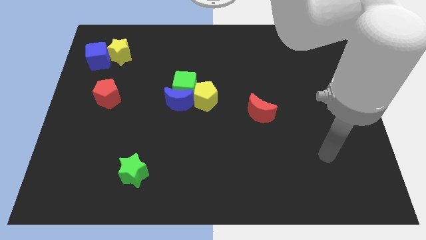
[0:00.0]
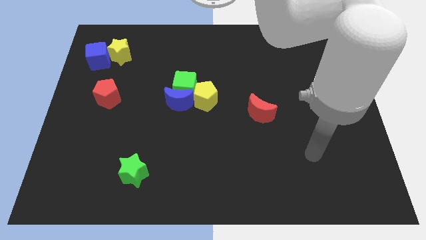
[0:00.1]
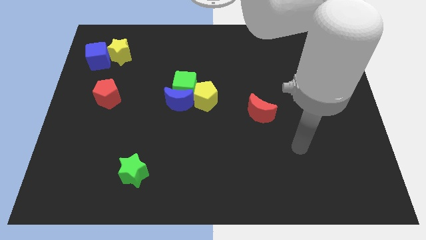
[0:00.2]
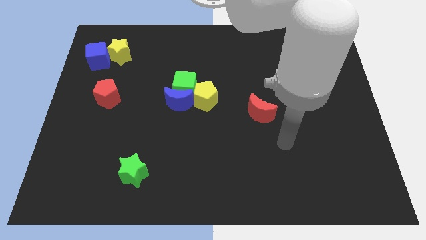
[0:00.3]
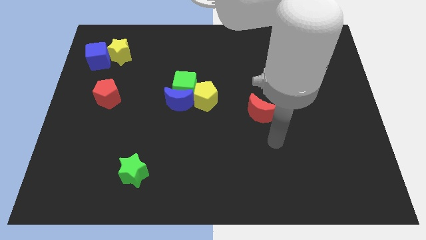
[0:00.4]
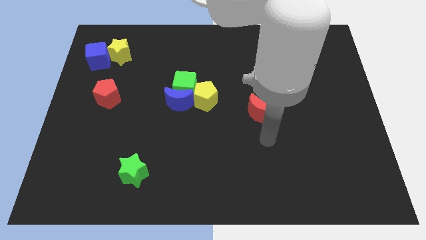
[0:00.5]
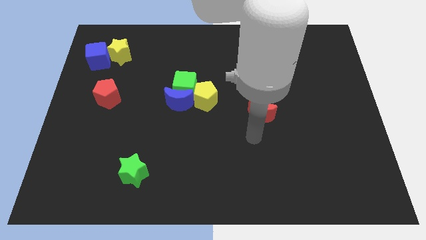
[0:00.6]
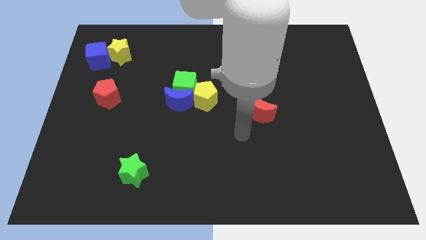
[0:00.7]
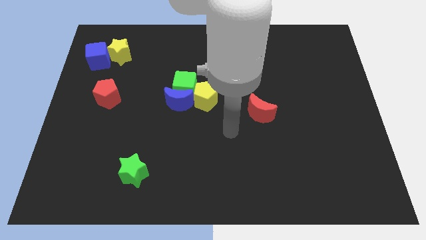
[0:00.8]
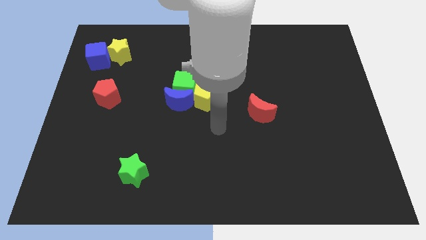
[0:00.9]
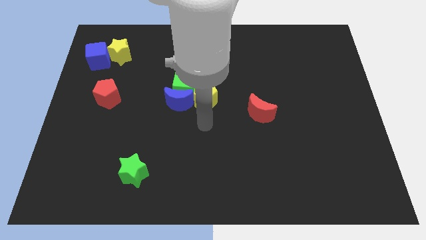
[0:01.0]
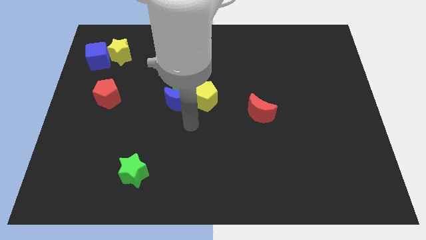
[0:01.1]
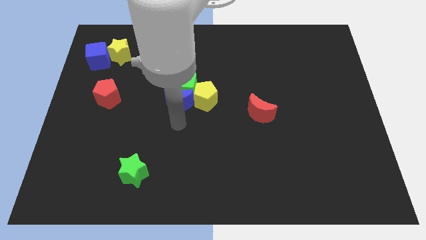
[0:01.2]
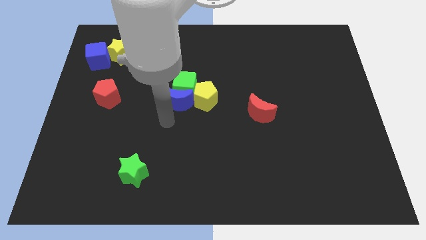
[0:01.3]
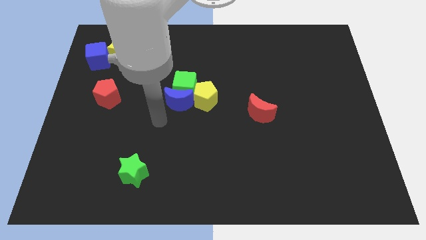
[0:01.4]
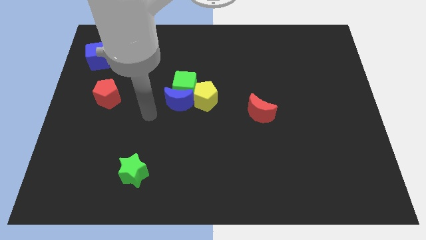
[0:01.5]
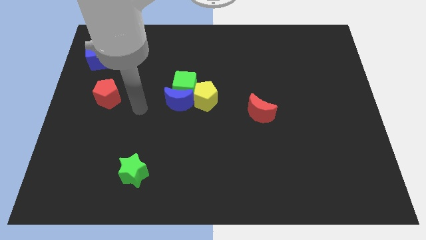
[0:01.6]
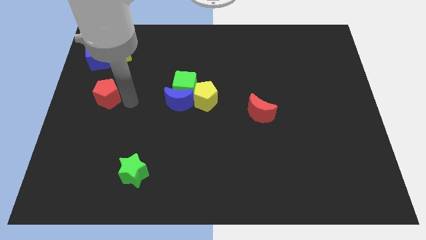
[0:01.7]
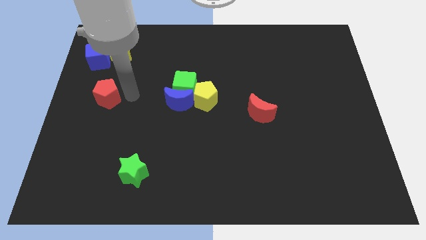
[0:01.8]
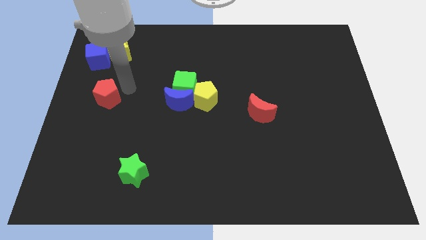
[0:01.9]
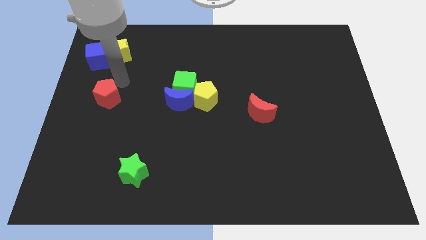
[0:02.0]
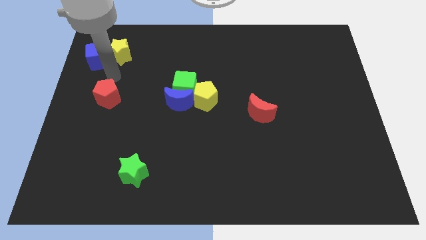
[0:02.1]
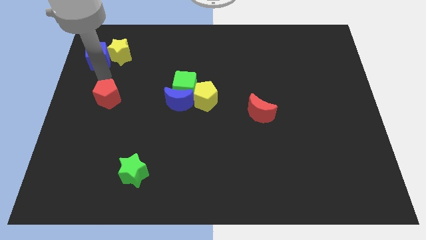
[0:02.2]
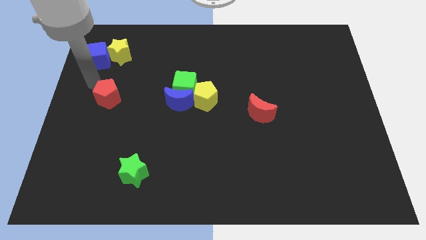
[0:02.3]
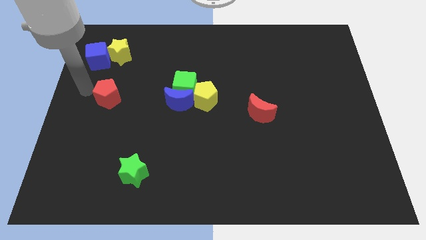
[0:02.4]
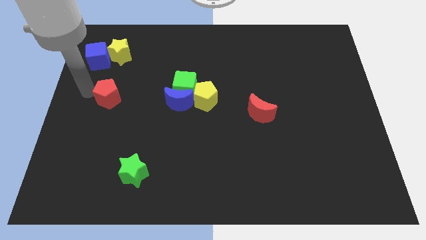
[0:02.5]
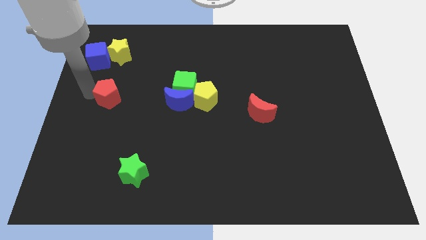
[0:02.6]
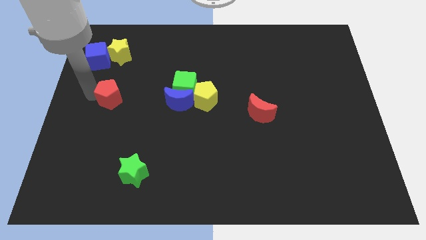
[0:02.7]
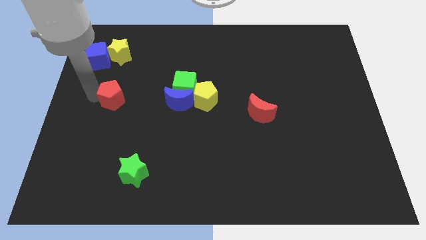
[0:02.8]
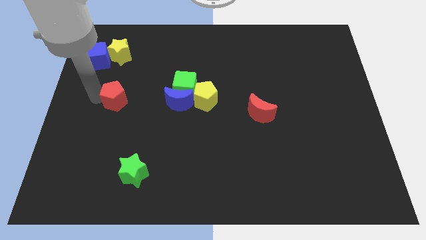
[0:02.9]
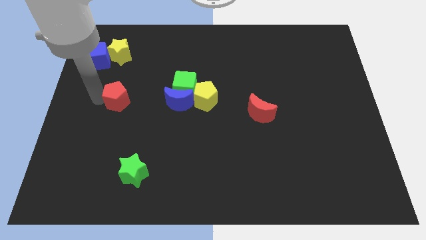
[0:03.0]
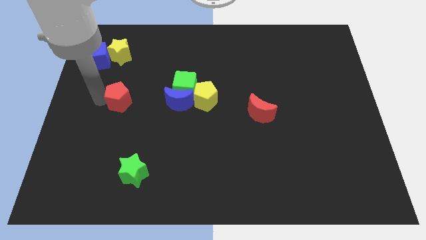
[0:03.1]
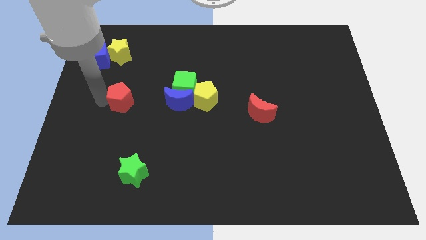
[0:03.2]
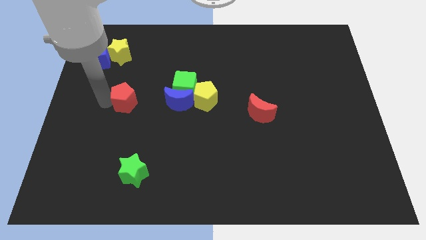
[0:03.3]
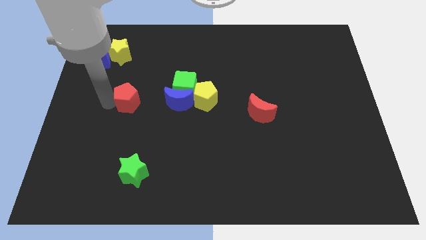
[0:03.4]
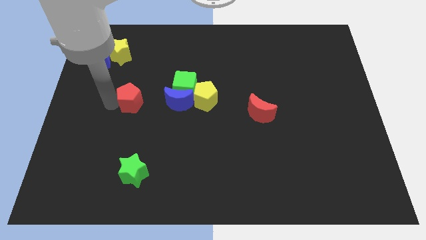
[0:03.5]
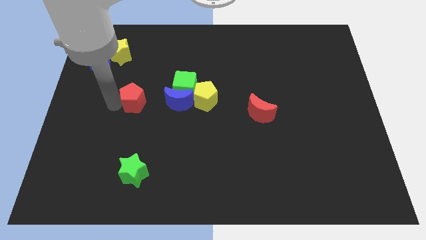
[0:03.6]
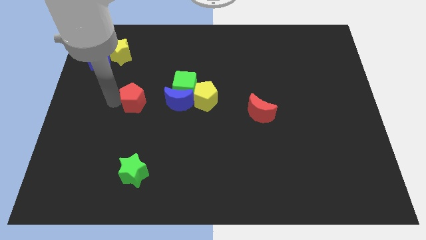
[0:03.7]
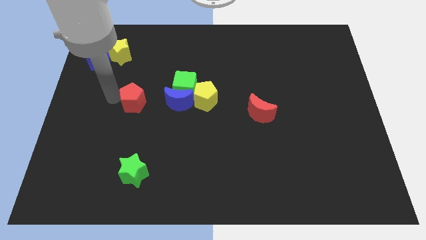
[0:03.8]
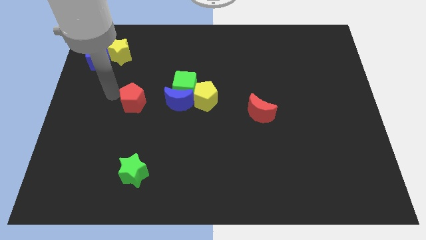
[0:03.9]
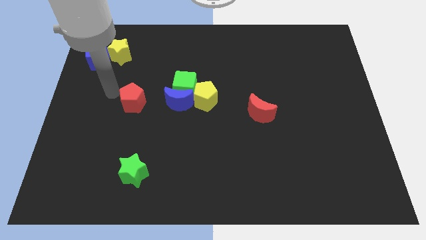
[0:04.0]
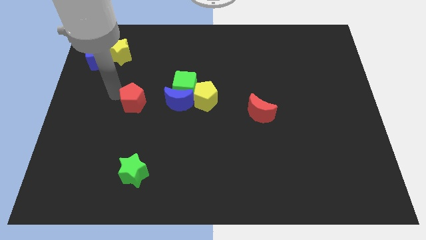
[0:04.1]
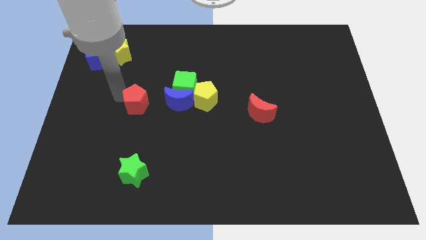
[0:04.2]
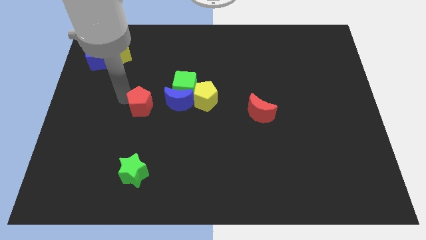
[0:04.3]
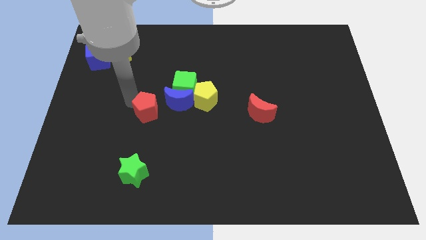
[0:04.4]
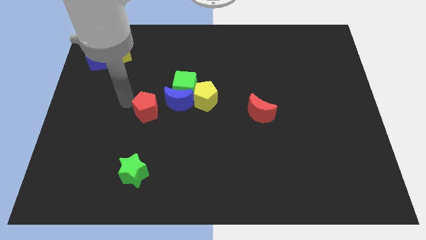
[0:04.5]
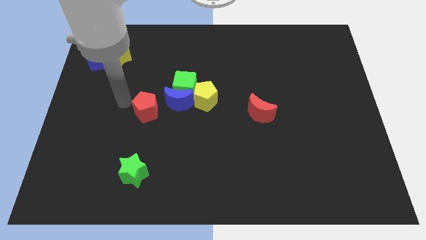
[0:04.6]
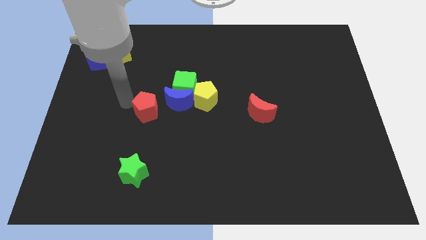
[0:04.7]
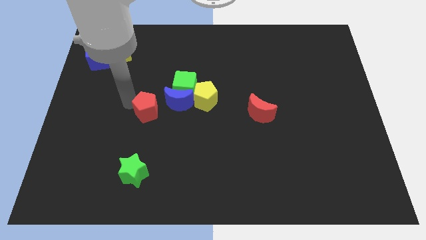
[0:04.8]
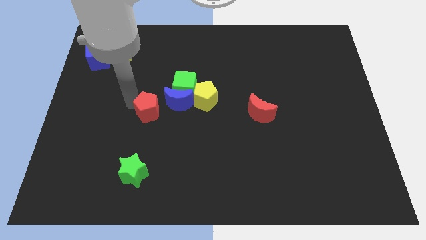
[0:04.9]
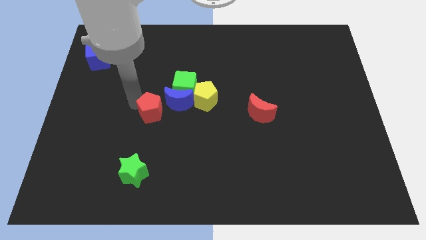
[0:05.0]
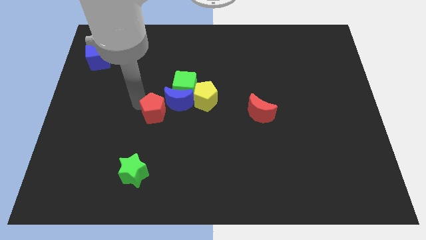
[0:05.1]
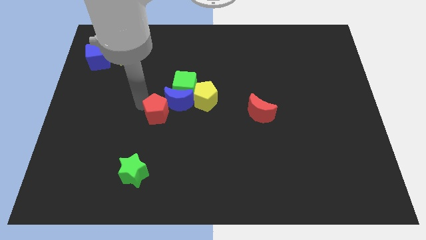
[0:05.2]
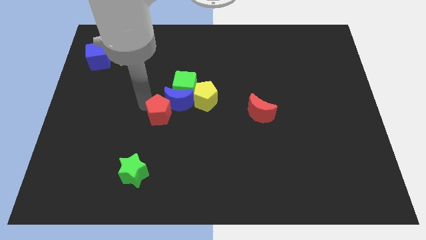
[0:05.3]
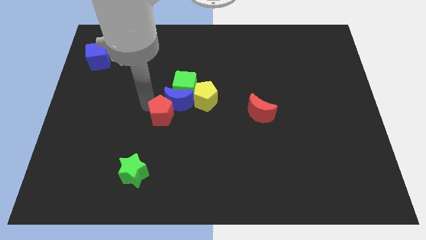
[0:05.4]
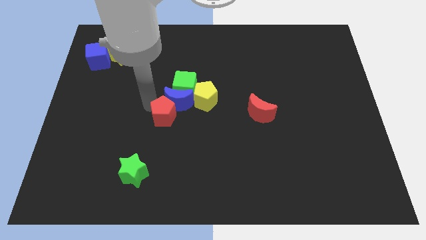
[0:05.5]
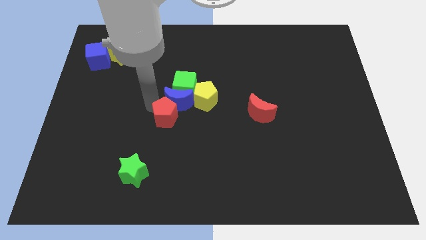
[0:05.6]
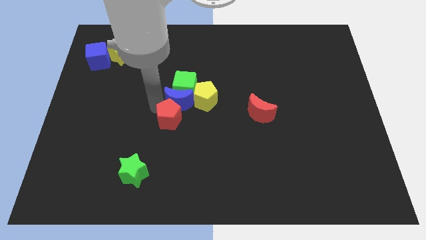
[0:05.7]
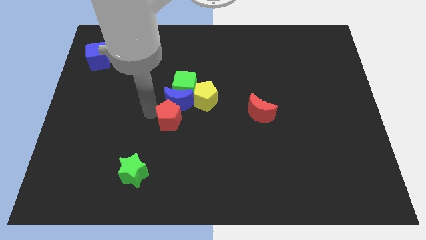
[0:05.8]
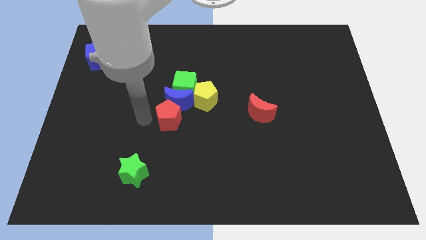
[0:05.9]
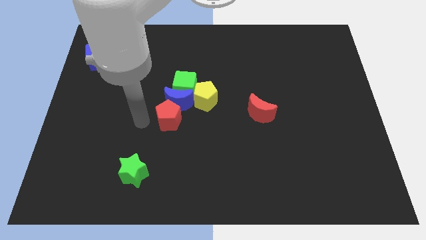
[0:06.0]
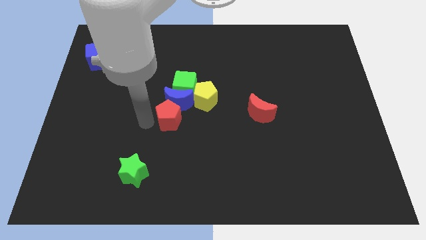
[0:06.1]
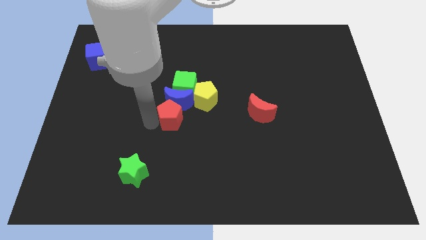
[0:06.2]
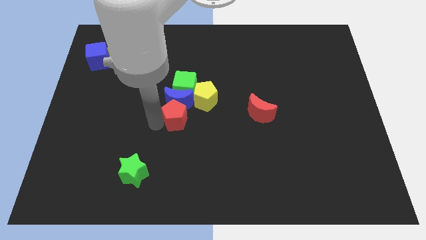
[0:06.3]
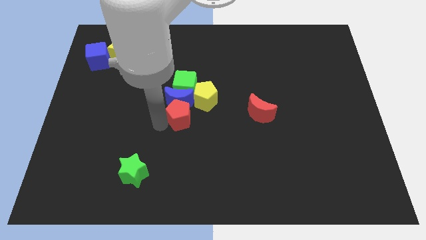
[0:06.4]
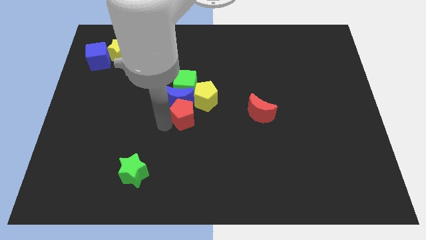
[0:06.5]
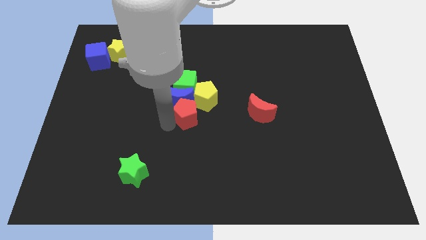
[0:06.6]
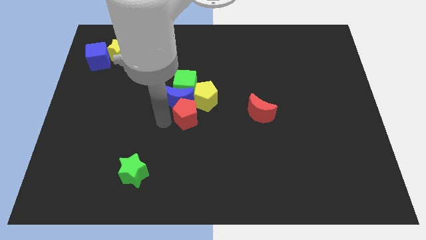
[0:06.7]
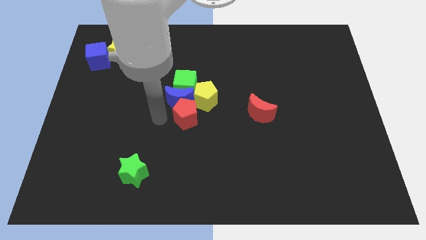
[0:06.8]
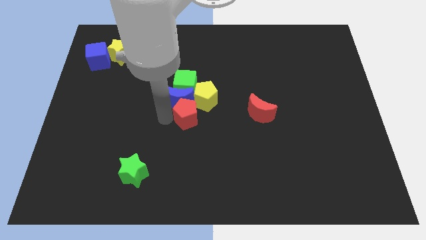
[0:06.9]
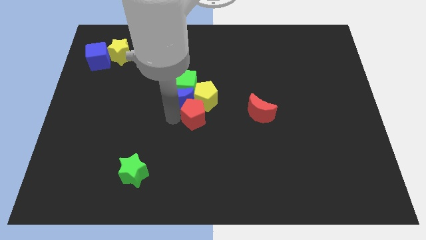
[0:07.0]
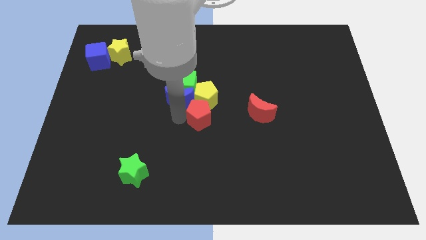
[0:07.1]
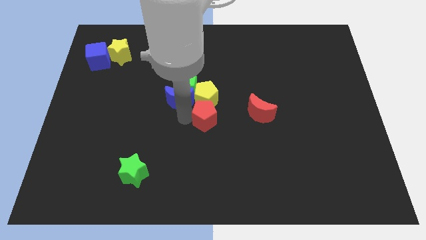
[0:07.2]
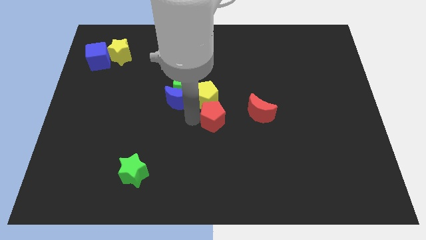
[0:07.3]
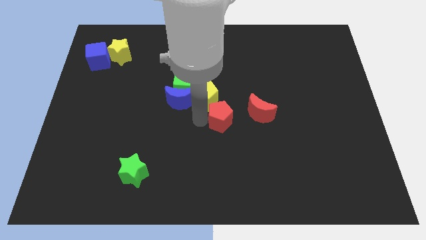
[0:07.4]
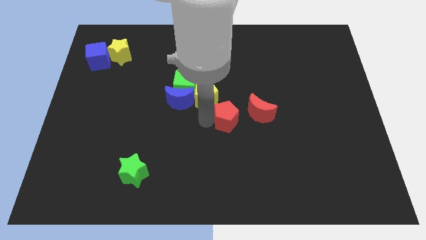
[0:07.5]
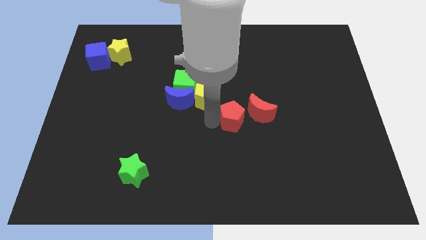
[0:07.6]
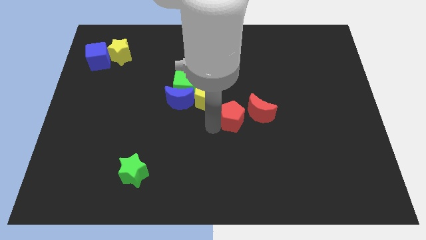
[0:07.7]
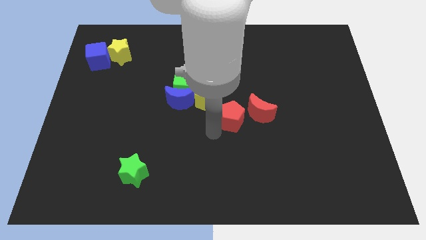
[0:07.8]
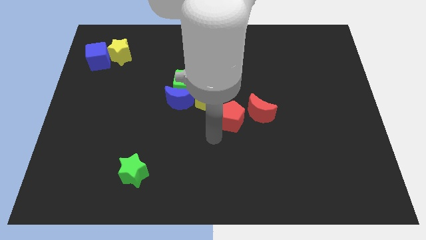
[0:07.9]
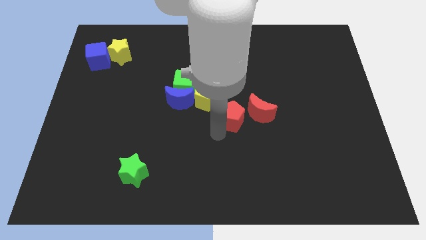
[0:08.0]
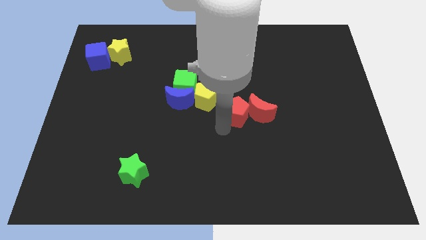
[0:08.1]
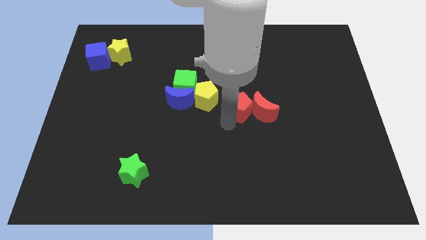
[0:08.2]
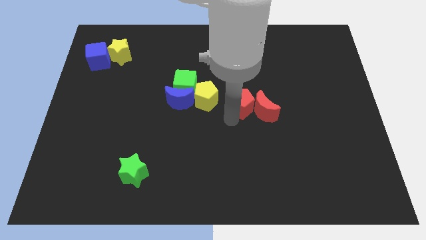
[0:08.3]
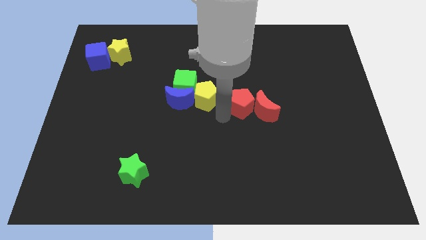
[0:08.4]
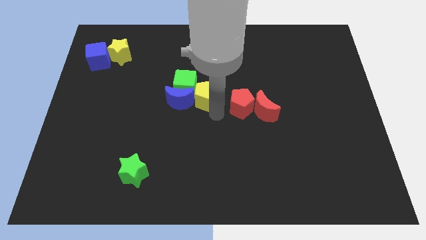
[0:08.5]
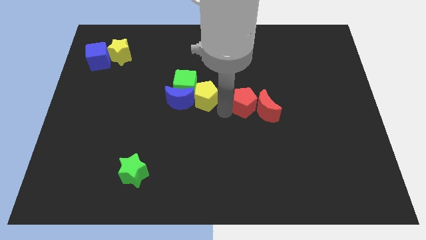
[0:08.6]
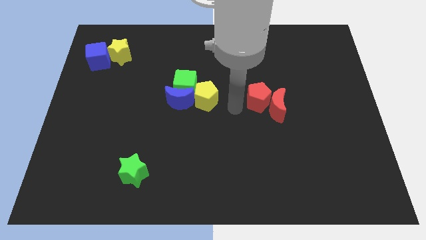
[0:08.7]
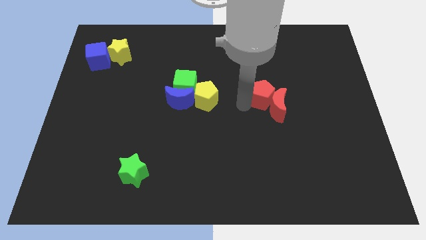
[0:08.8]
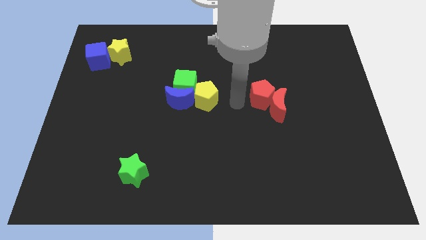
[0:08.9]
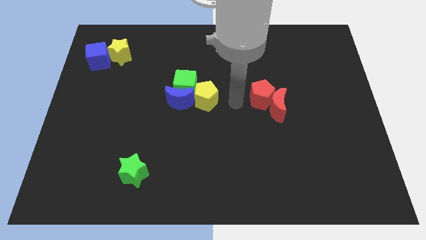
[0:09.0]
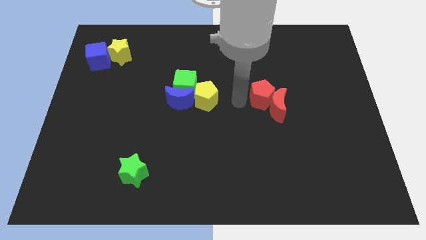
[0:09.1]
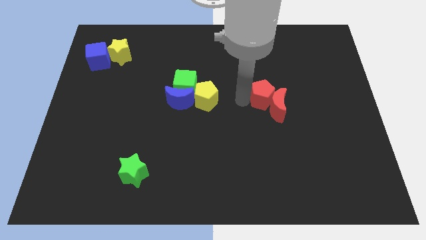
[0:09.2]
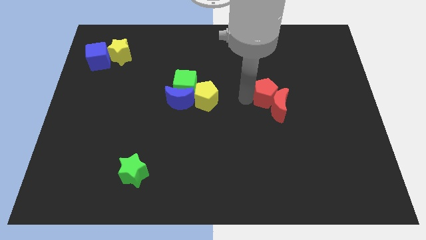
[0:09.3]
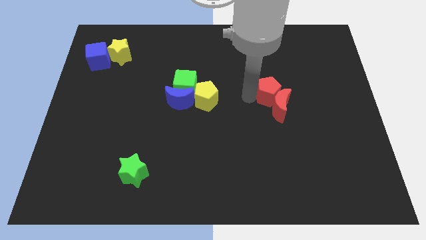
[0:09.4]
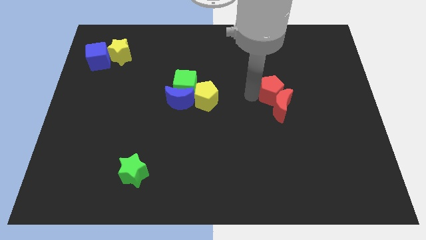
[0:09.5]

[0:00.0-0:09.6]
put the red pentagon to the top right of the red moon
